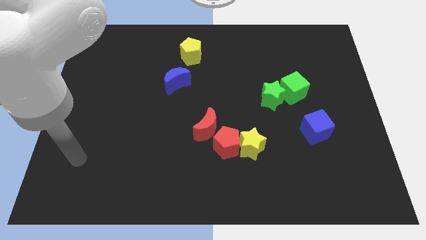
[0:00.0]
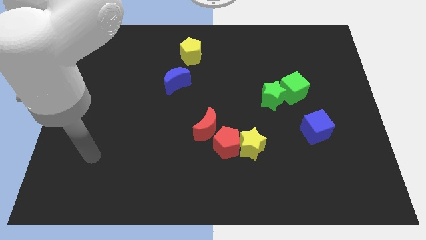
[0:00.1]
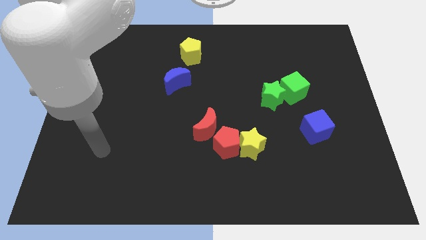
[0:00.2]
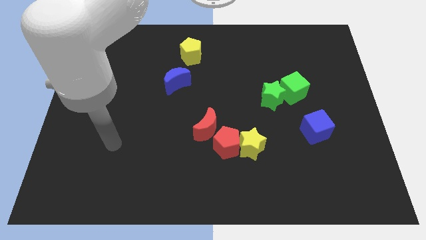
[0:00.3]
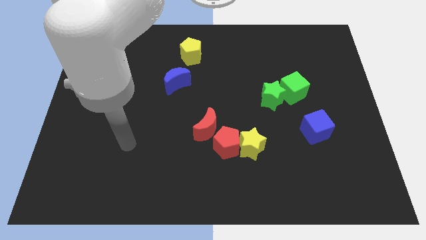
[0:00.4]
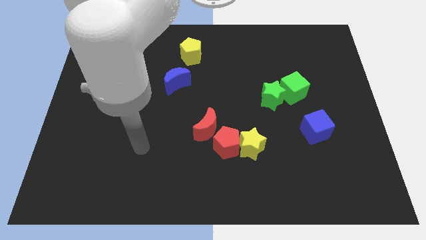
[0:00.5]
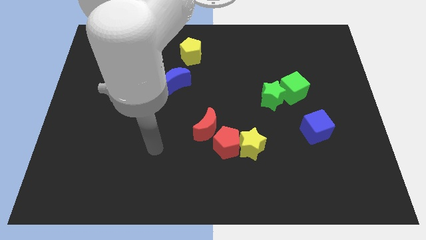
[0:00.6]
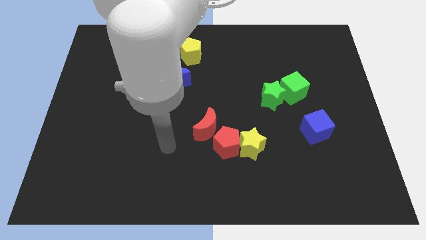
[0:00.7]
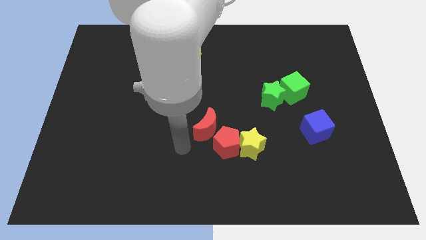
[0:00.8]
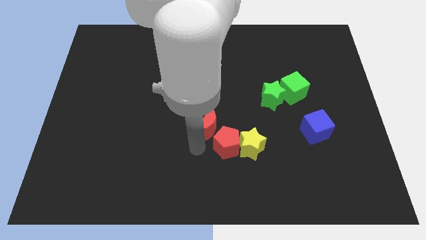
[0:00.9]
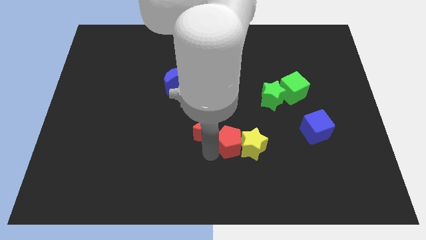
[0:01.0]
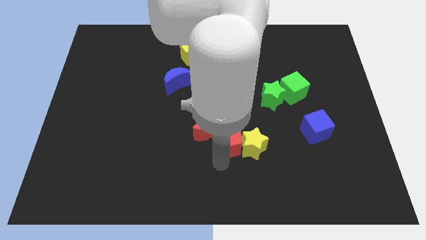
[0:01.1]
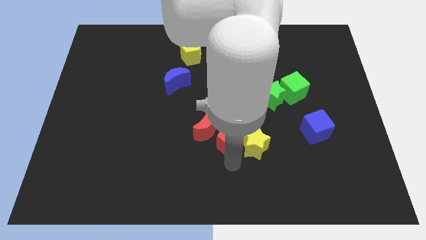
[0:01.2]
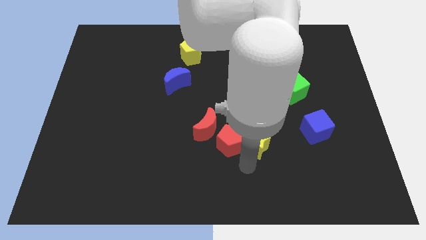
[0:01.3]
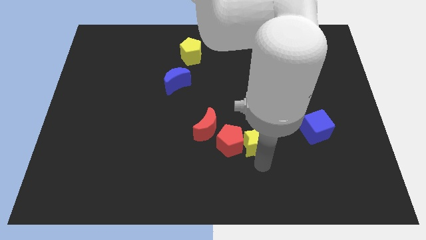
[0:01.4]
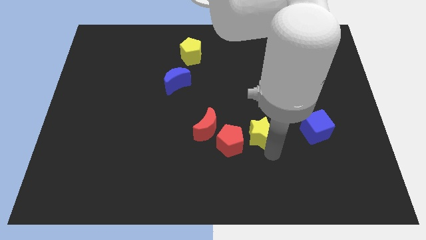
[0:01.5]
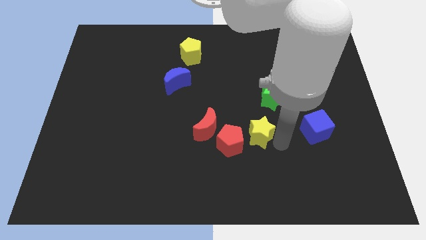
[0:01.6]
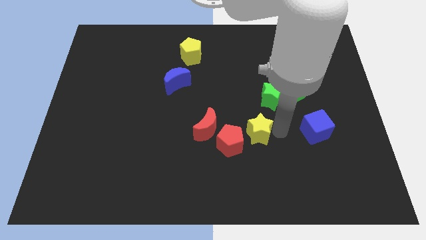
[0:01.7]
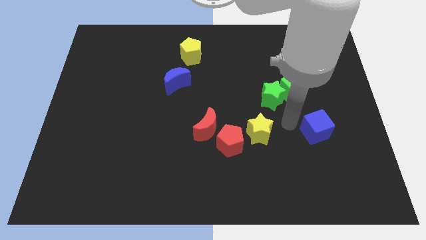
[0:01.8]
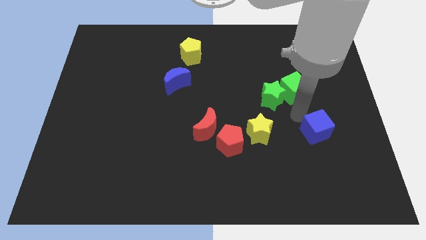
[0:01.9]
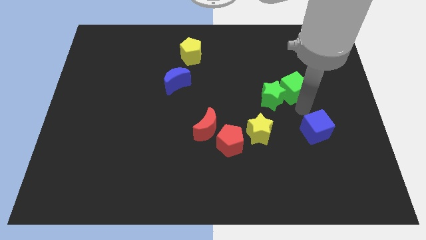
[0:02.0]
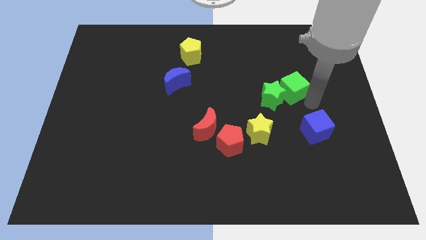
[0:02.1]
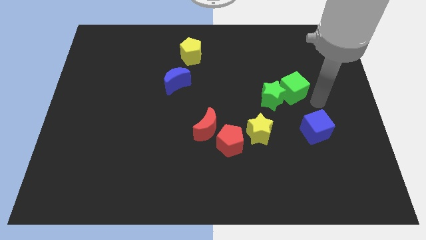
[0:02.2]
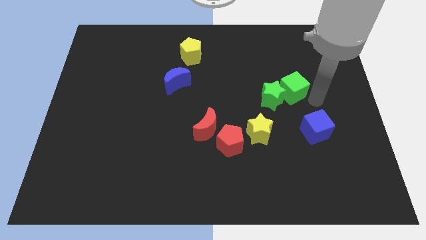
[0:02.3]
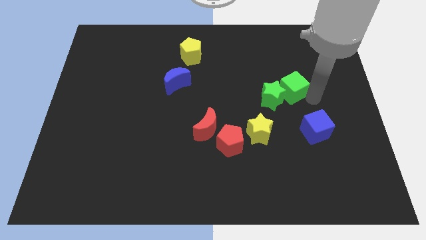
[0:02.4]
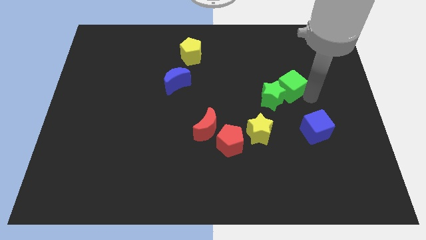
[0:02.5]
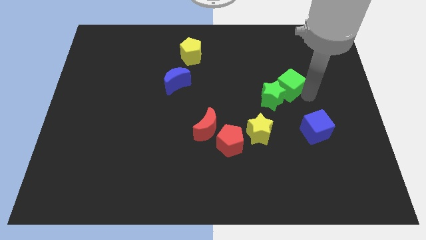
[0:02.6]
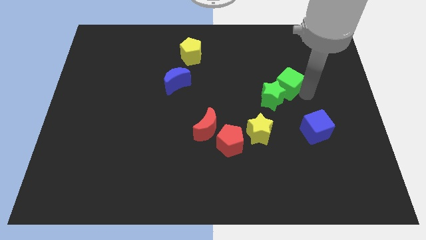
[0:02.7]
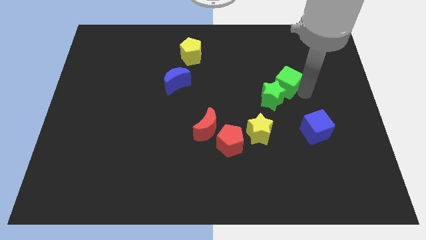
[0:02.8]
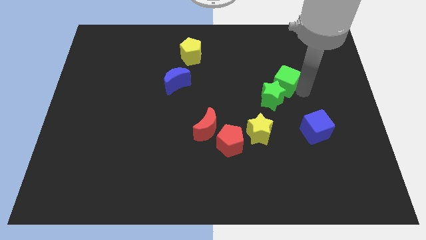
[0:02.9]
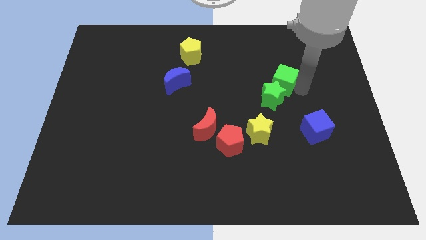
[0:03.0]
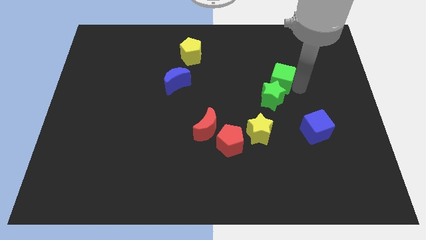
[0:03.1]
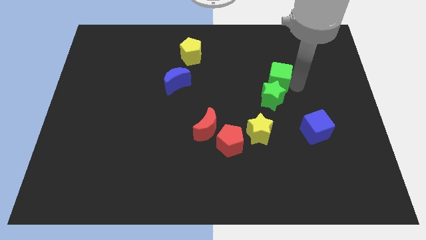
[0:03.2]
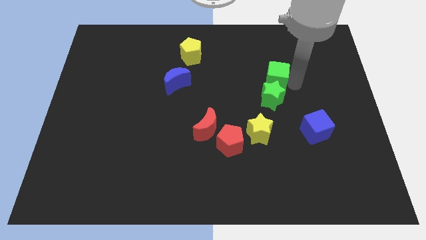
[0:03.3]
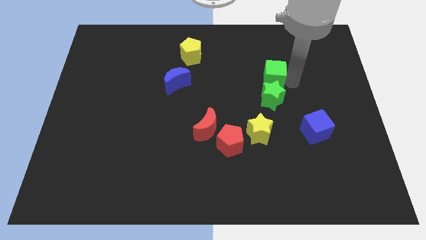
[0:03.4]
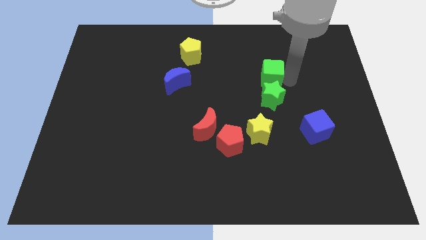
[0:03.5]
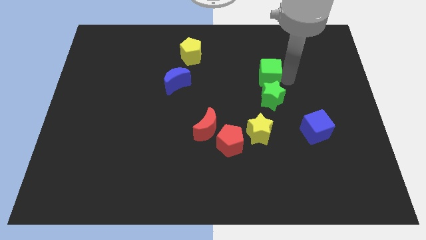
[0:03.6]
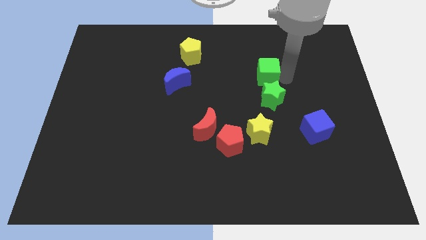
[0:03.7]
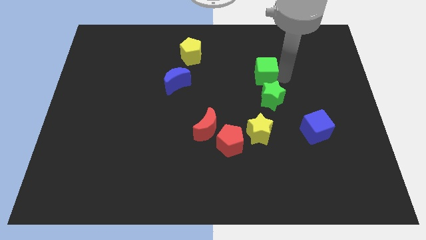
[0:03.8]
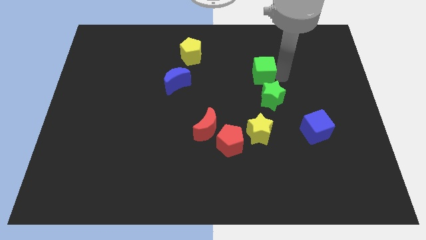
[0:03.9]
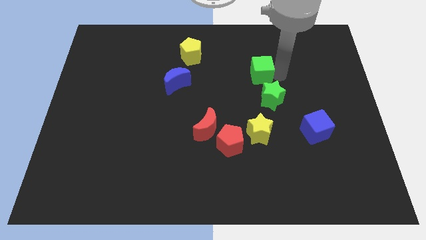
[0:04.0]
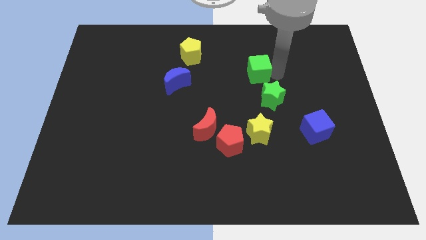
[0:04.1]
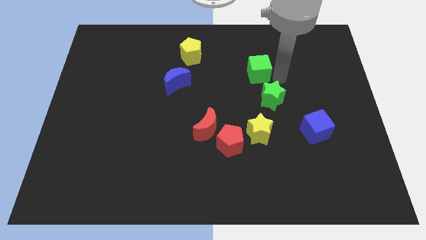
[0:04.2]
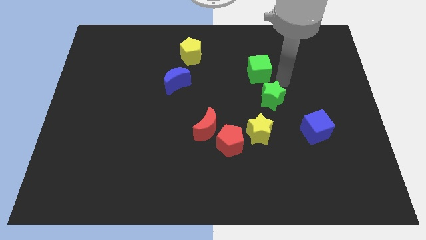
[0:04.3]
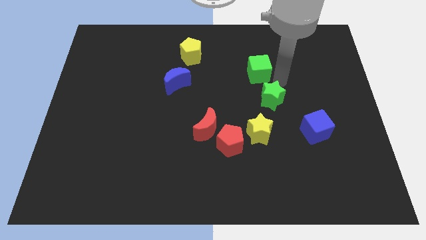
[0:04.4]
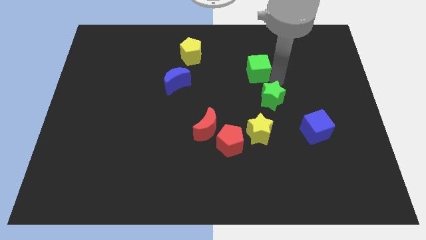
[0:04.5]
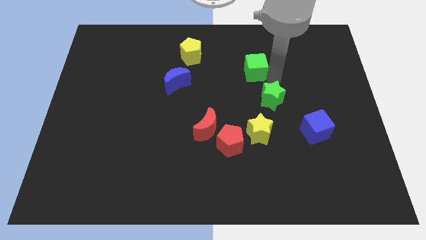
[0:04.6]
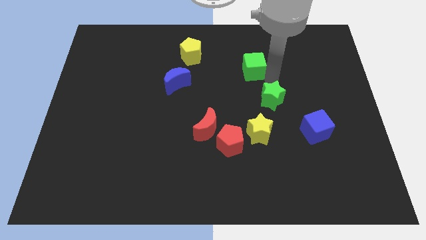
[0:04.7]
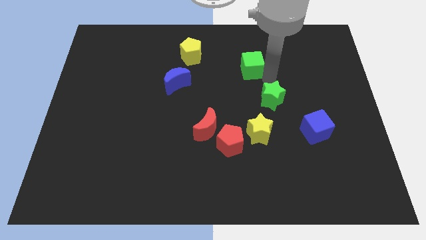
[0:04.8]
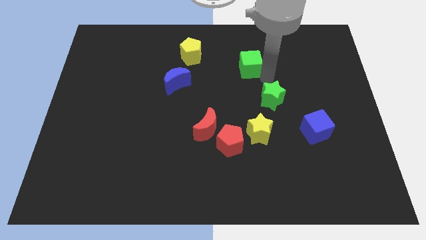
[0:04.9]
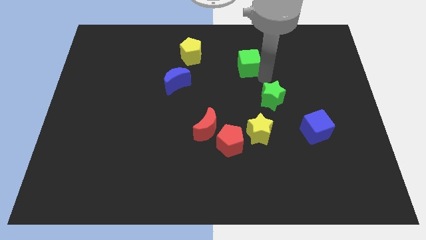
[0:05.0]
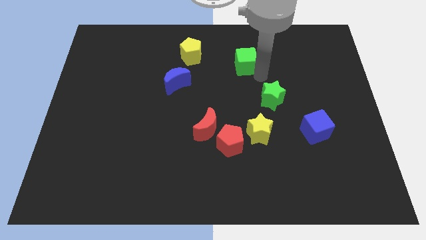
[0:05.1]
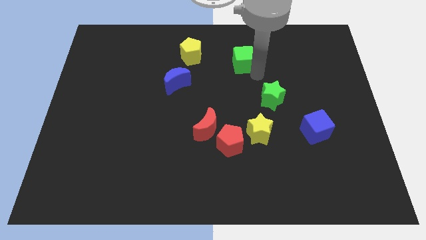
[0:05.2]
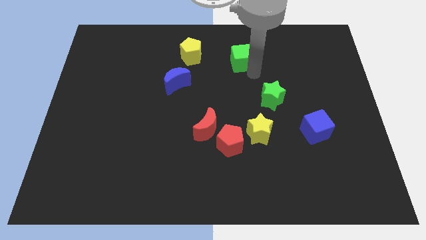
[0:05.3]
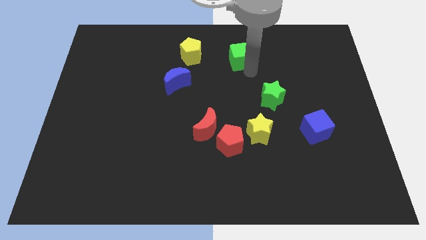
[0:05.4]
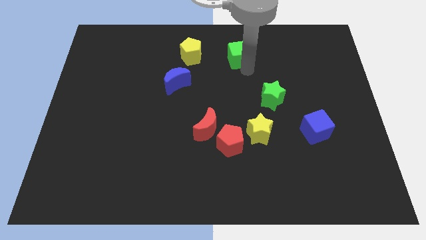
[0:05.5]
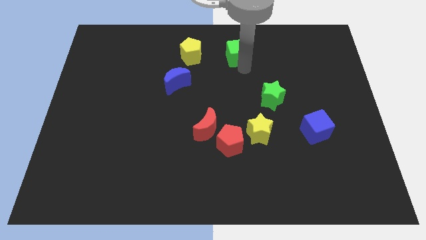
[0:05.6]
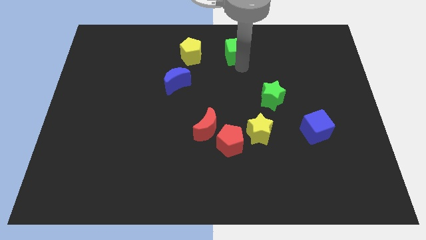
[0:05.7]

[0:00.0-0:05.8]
slide the green cube to the towards your base

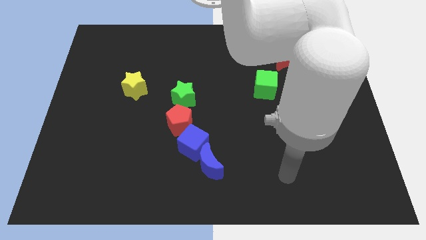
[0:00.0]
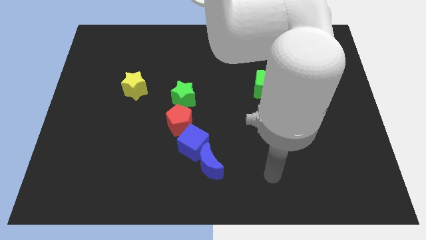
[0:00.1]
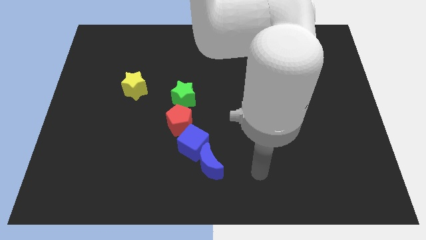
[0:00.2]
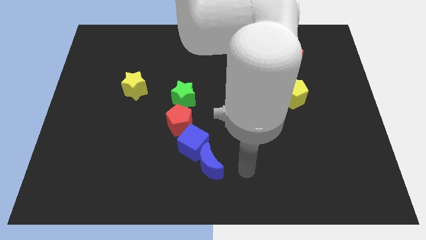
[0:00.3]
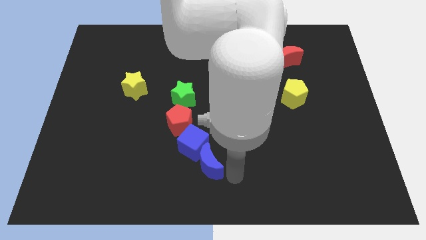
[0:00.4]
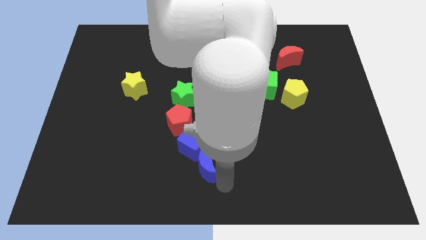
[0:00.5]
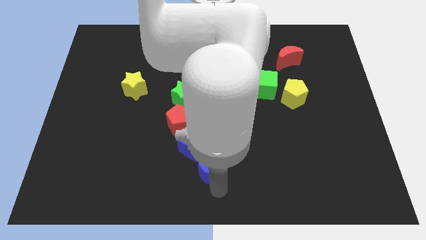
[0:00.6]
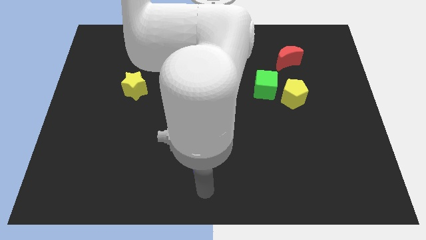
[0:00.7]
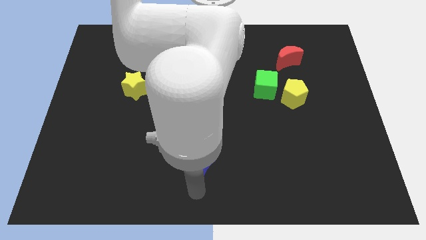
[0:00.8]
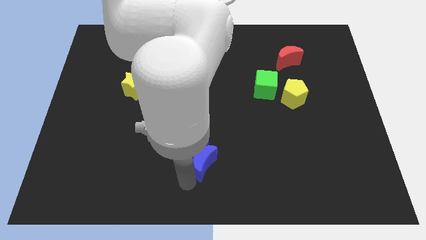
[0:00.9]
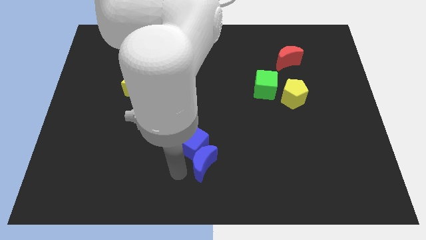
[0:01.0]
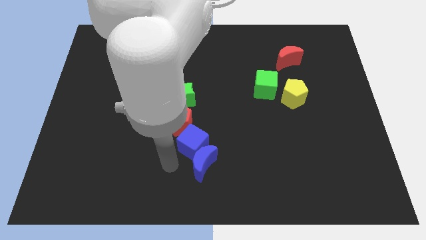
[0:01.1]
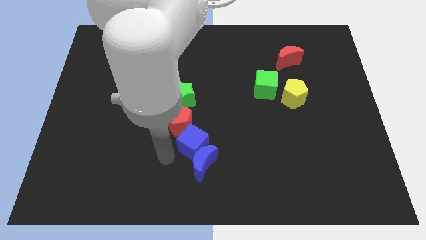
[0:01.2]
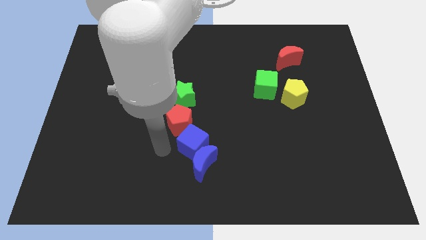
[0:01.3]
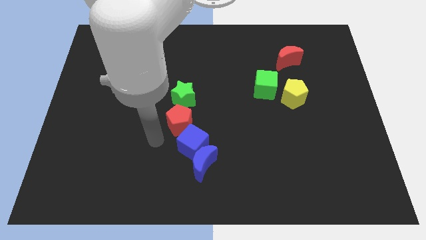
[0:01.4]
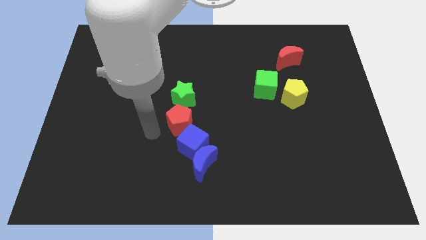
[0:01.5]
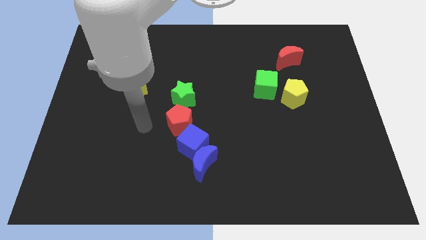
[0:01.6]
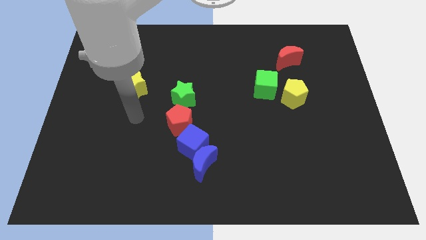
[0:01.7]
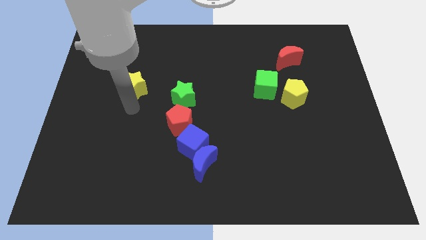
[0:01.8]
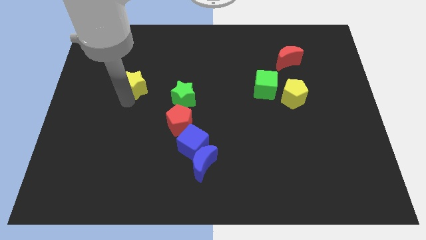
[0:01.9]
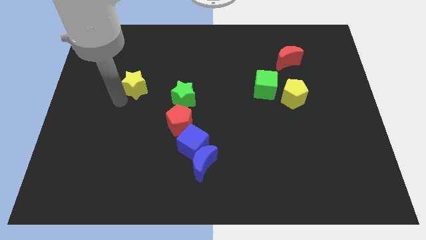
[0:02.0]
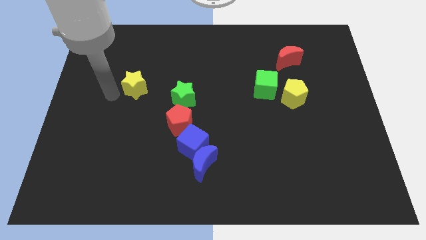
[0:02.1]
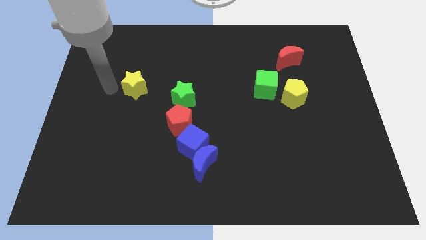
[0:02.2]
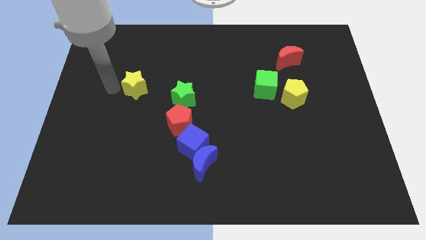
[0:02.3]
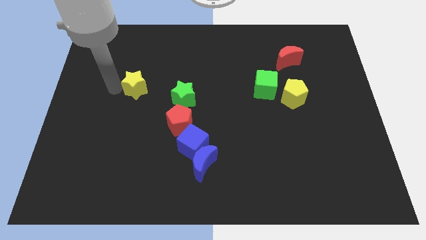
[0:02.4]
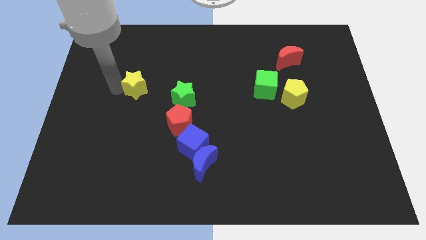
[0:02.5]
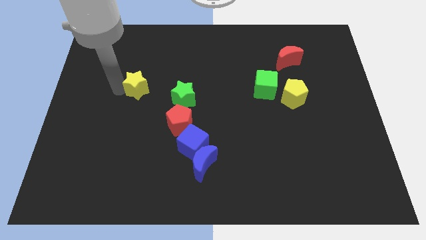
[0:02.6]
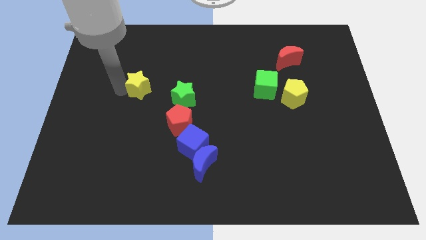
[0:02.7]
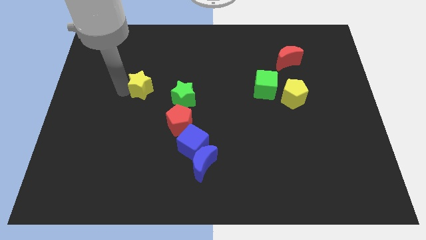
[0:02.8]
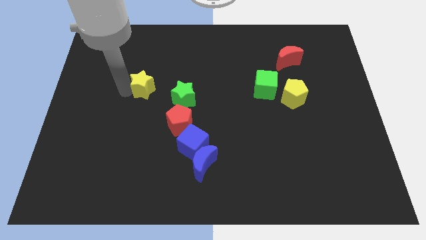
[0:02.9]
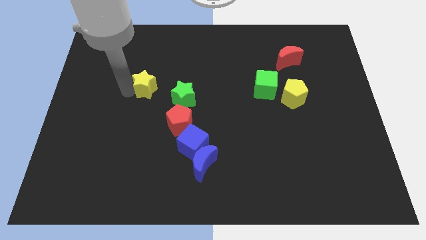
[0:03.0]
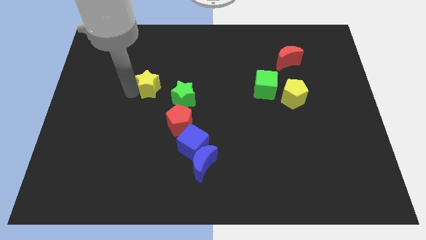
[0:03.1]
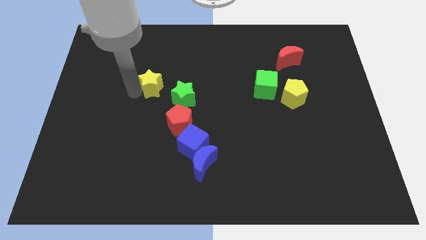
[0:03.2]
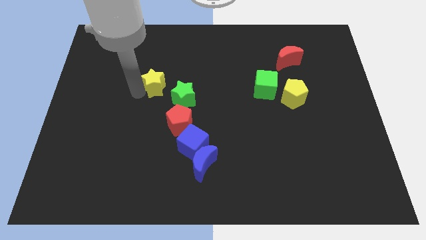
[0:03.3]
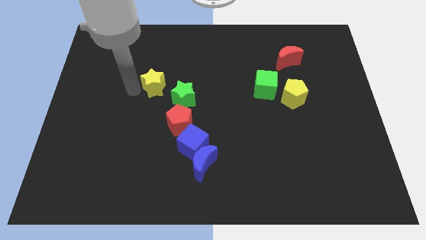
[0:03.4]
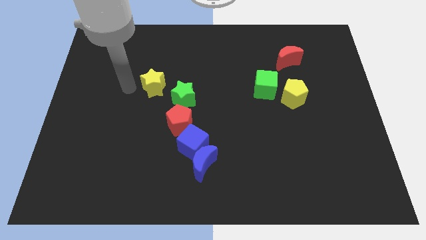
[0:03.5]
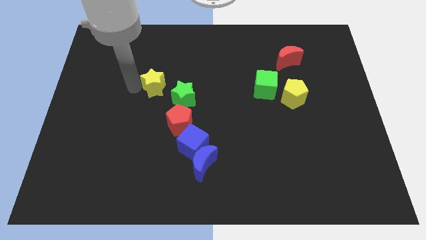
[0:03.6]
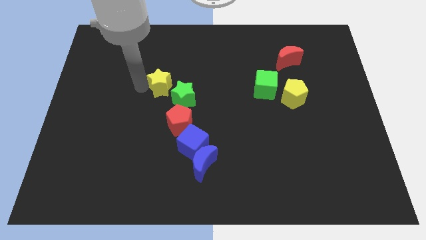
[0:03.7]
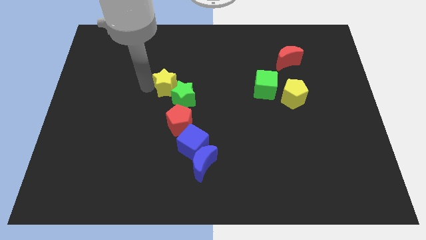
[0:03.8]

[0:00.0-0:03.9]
slide the yellow star to the middle
